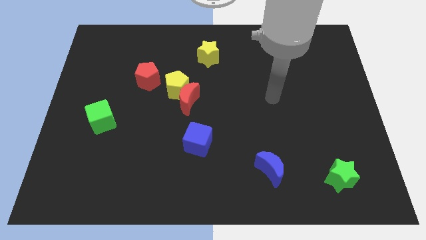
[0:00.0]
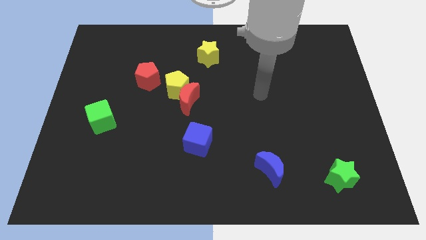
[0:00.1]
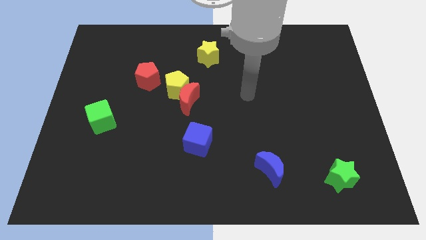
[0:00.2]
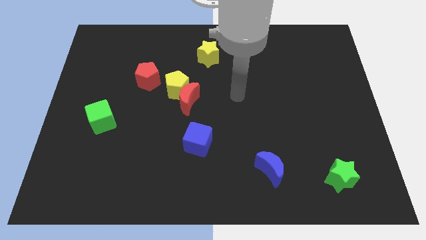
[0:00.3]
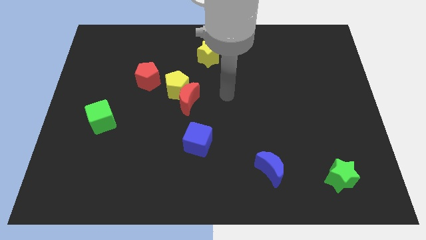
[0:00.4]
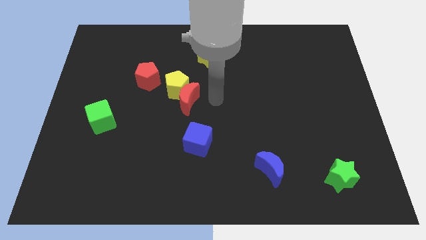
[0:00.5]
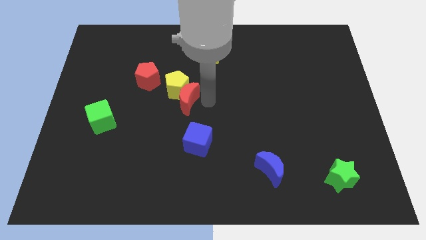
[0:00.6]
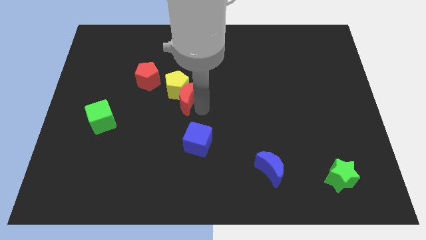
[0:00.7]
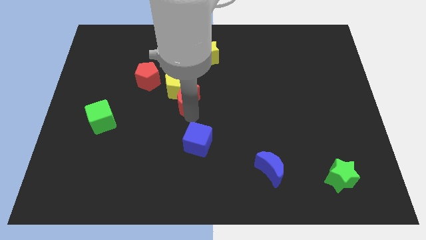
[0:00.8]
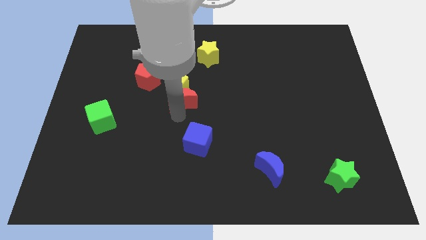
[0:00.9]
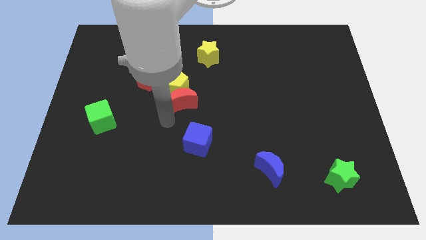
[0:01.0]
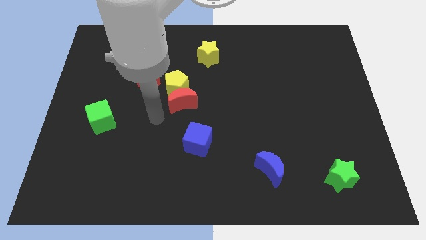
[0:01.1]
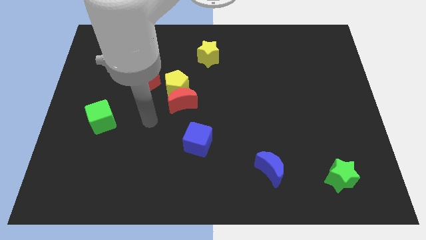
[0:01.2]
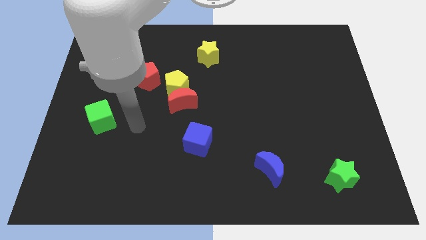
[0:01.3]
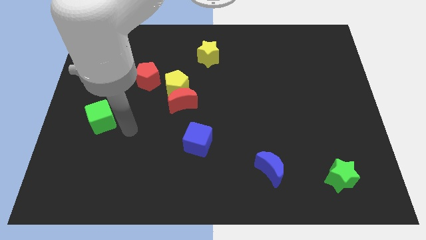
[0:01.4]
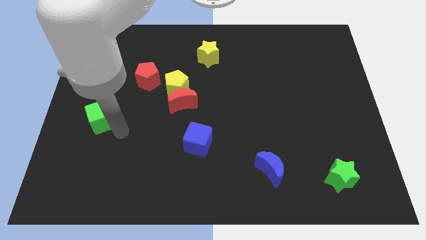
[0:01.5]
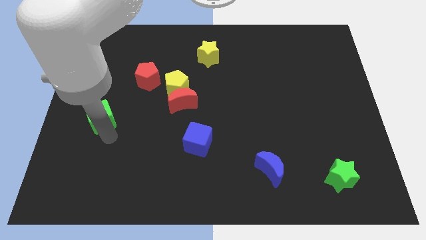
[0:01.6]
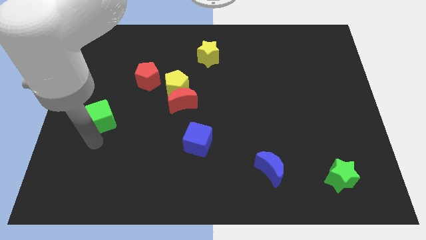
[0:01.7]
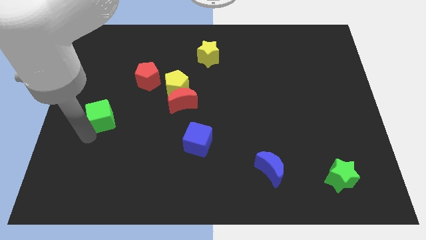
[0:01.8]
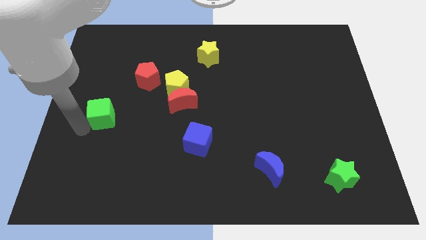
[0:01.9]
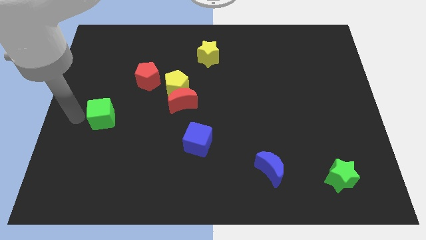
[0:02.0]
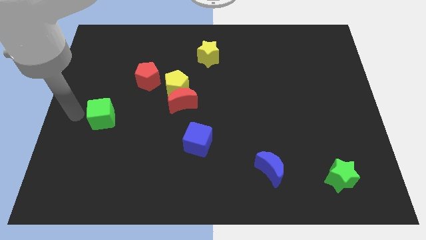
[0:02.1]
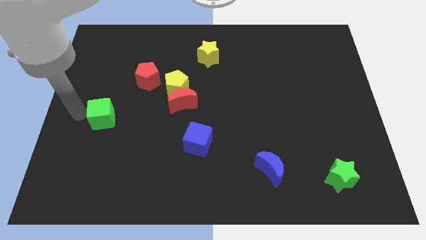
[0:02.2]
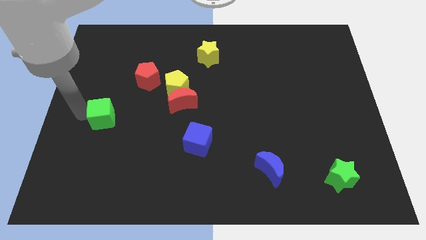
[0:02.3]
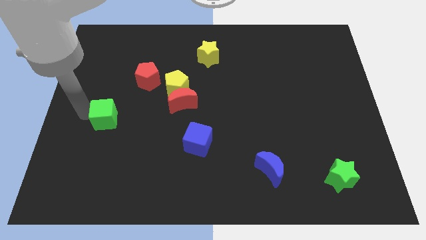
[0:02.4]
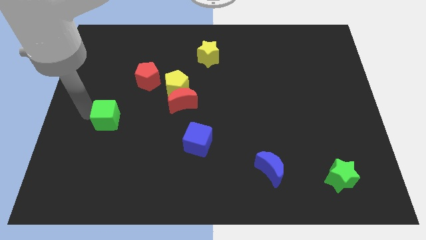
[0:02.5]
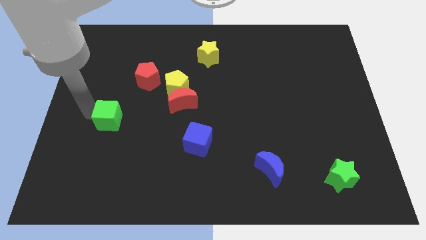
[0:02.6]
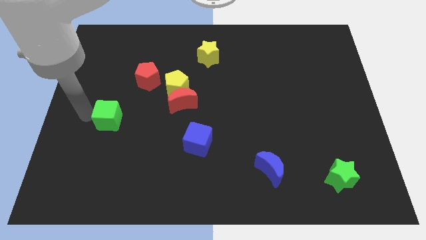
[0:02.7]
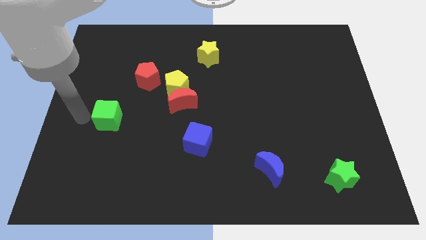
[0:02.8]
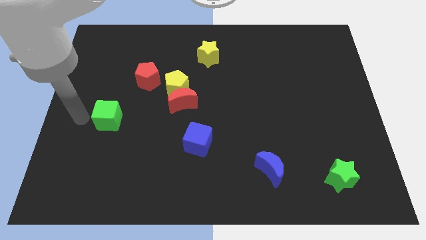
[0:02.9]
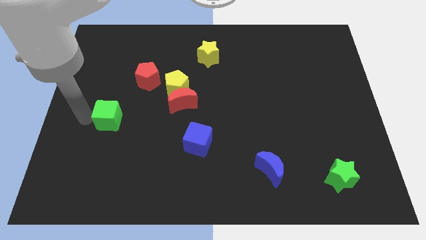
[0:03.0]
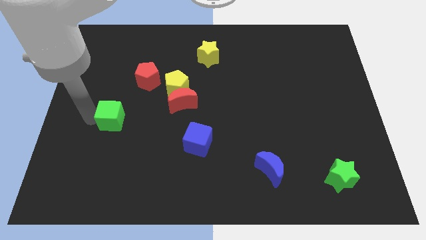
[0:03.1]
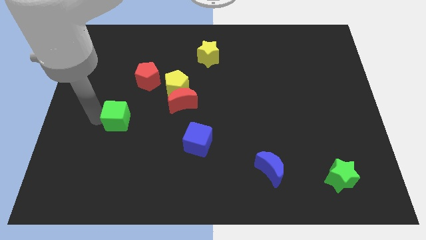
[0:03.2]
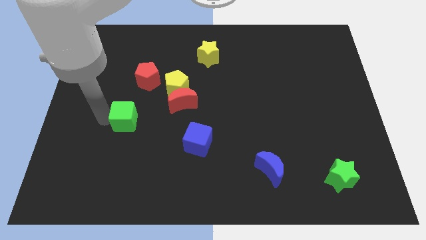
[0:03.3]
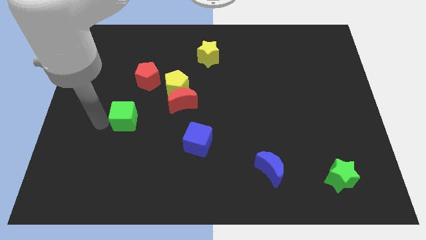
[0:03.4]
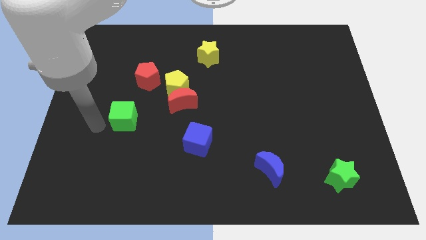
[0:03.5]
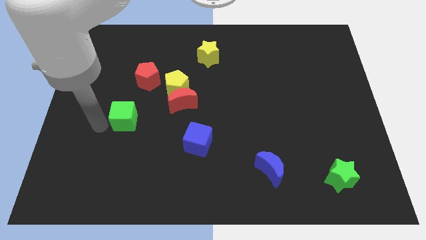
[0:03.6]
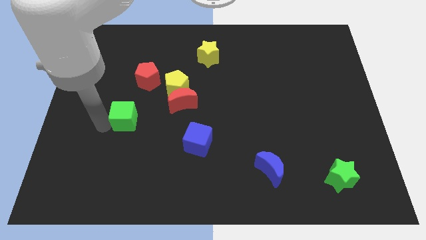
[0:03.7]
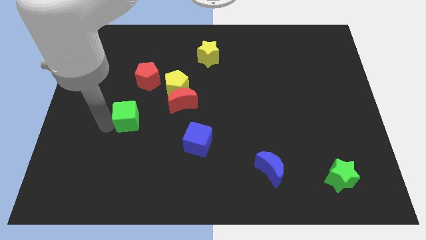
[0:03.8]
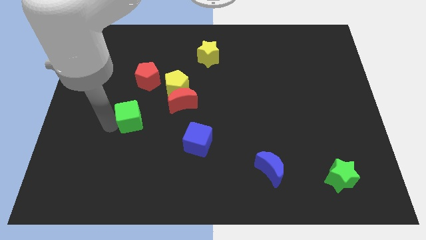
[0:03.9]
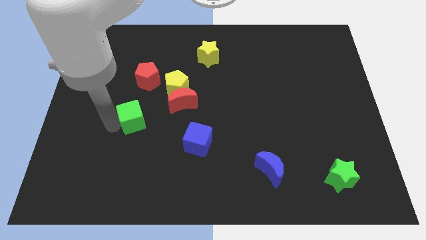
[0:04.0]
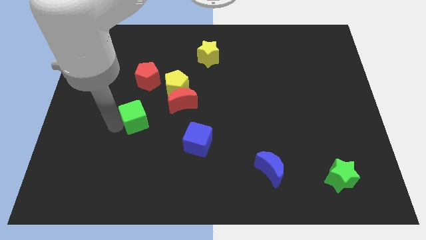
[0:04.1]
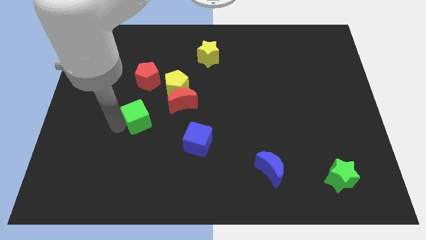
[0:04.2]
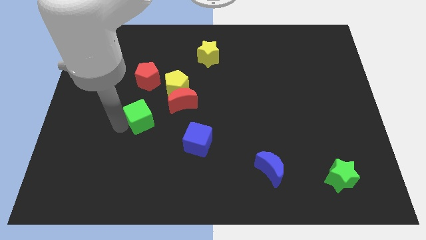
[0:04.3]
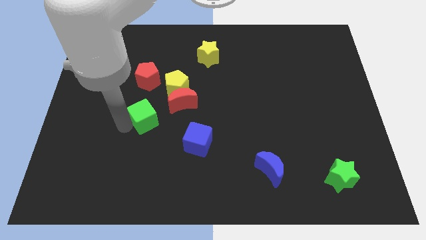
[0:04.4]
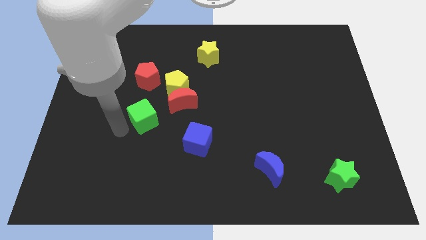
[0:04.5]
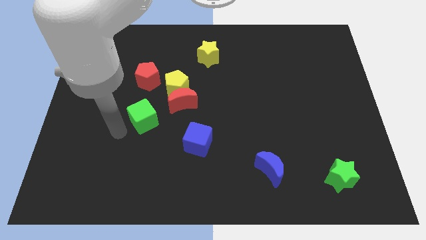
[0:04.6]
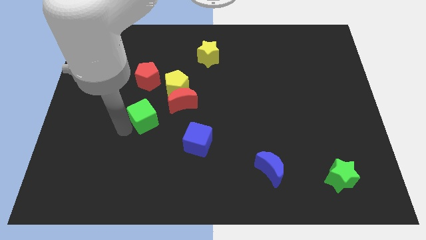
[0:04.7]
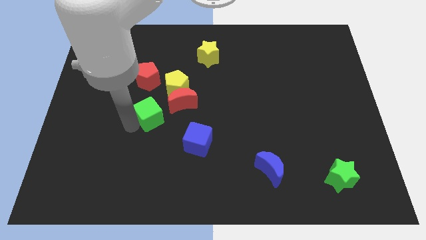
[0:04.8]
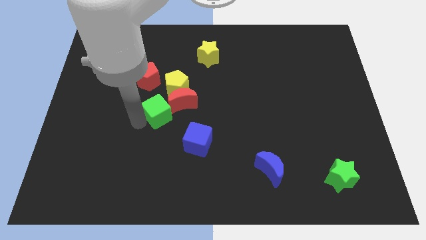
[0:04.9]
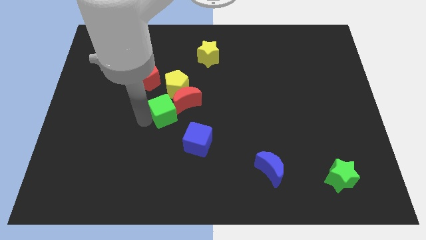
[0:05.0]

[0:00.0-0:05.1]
push the green cube close to the red moon

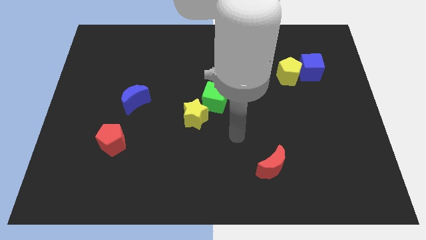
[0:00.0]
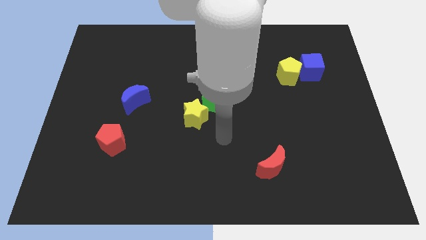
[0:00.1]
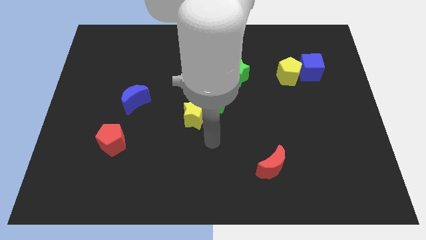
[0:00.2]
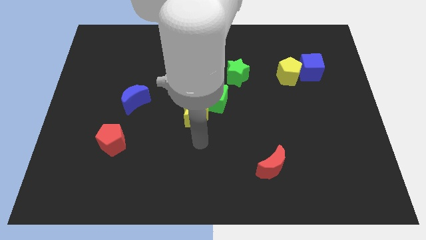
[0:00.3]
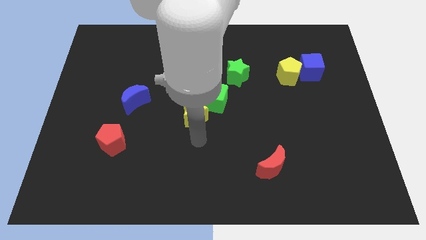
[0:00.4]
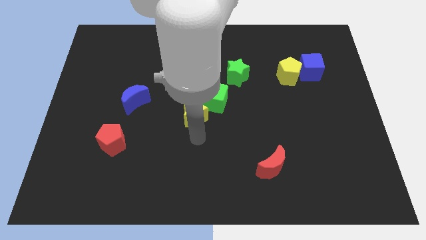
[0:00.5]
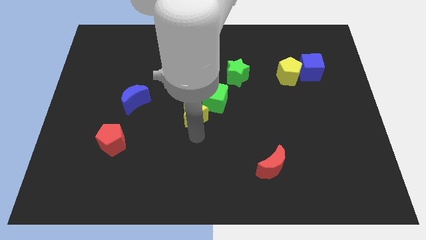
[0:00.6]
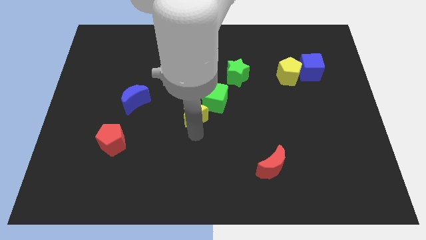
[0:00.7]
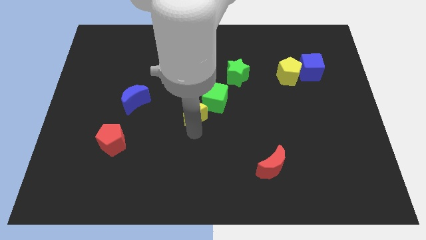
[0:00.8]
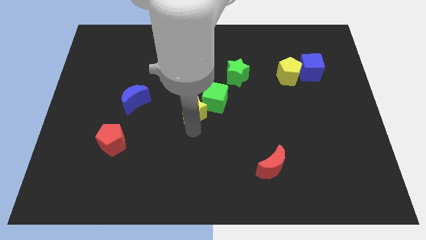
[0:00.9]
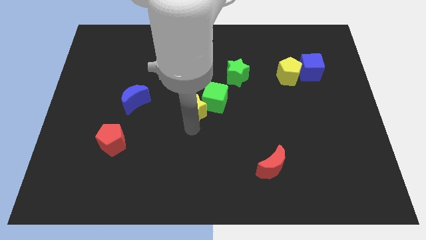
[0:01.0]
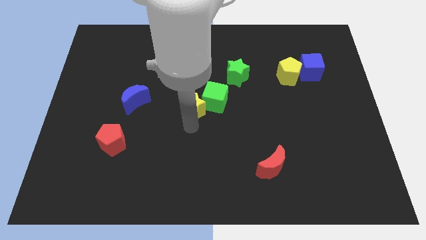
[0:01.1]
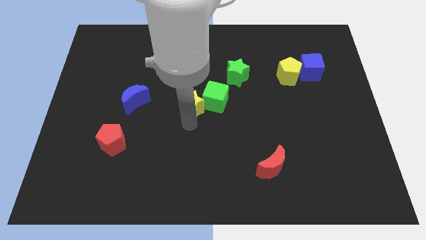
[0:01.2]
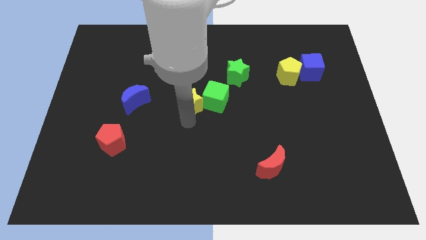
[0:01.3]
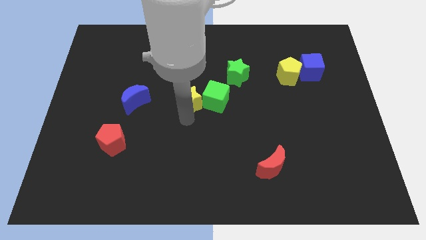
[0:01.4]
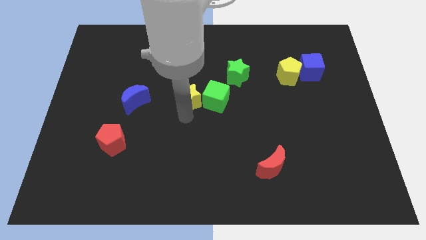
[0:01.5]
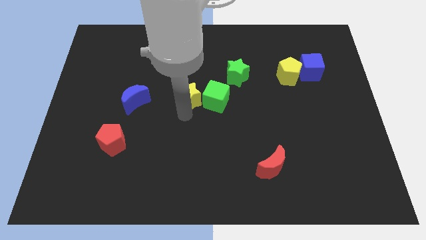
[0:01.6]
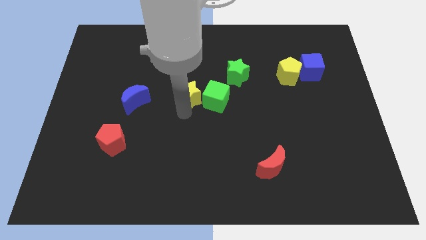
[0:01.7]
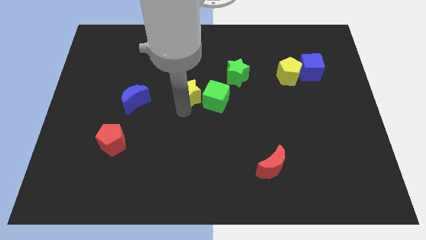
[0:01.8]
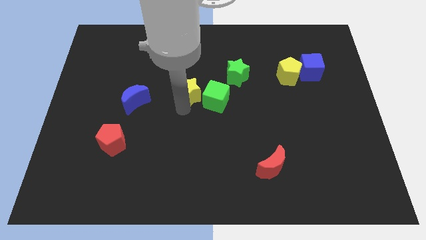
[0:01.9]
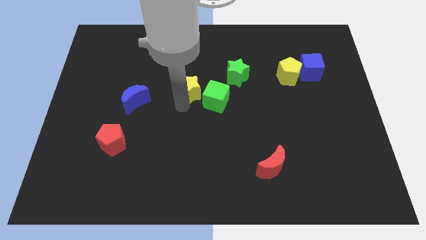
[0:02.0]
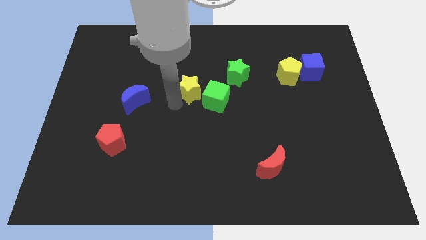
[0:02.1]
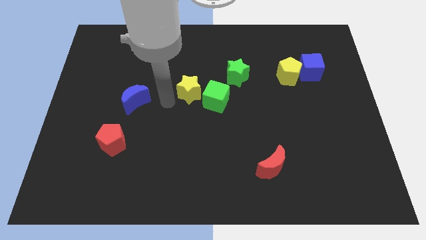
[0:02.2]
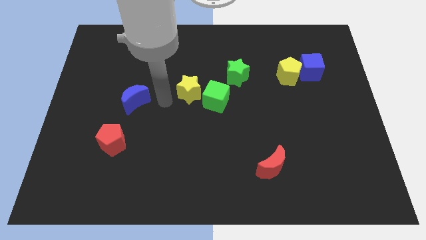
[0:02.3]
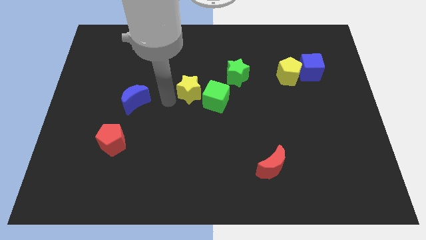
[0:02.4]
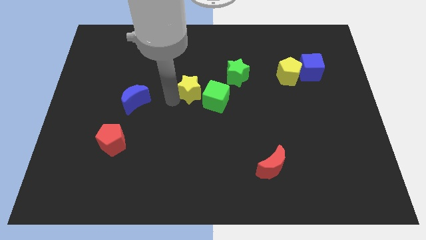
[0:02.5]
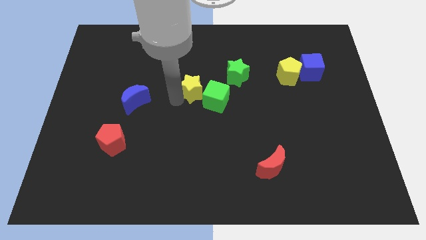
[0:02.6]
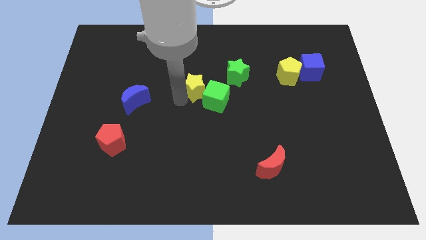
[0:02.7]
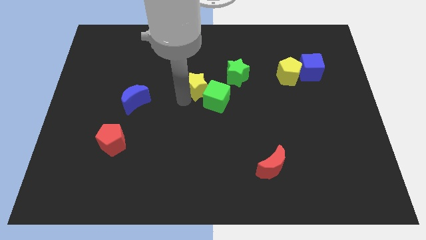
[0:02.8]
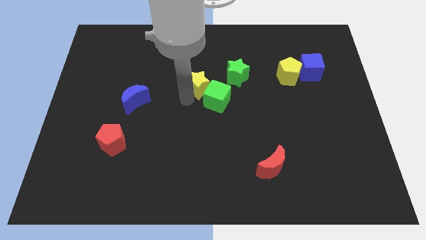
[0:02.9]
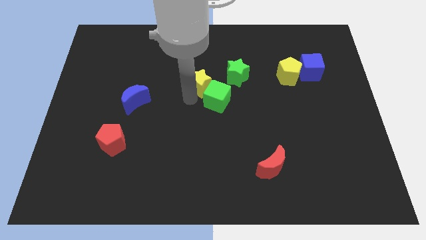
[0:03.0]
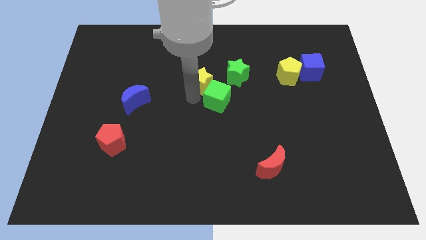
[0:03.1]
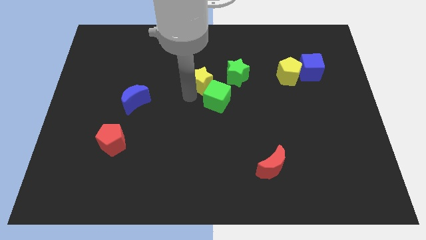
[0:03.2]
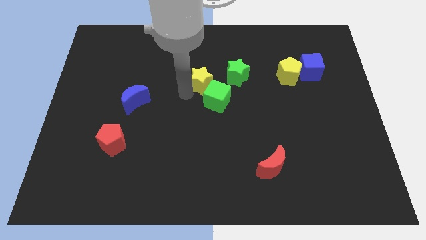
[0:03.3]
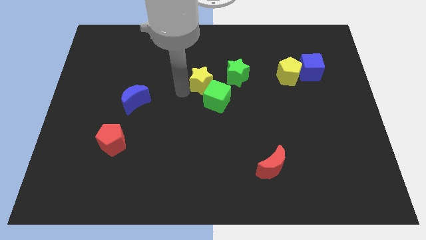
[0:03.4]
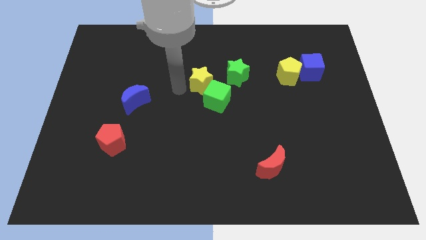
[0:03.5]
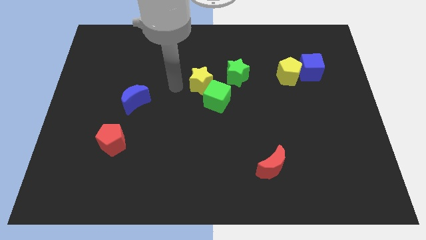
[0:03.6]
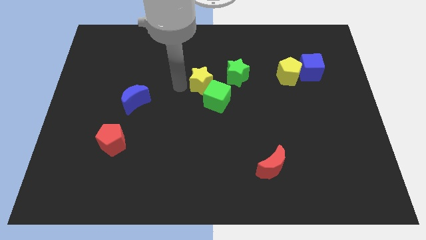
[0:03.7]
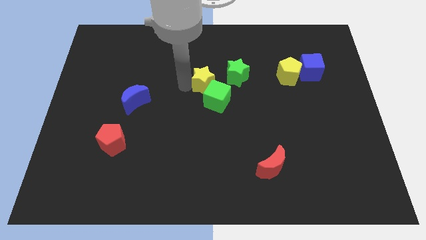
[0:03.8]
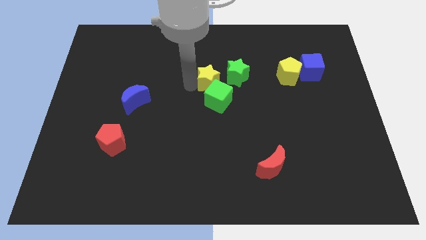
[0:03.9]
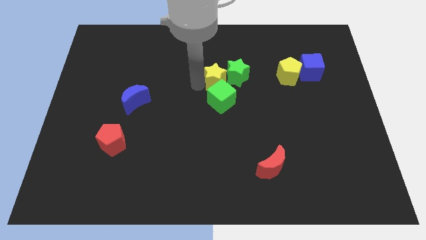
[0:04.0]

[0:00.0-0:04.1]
put the yellow star next to the green star
